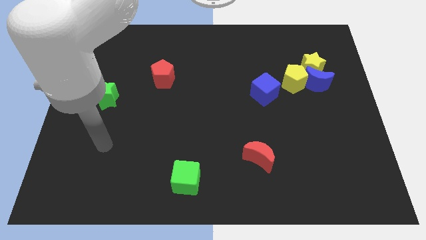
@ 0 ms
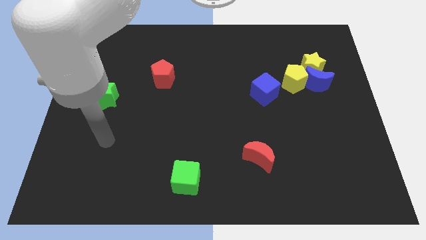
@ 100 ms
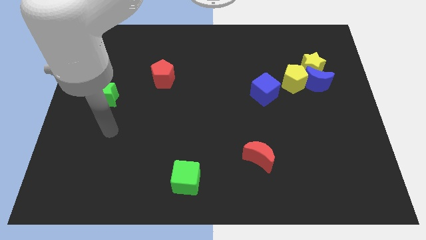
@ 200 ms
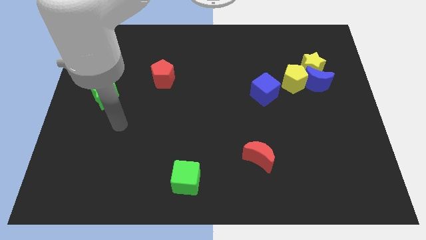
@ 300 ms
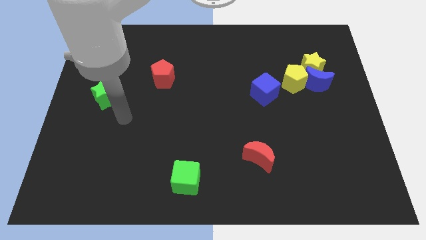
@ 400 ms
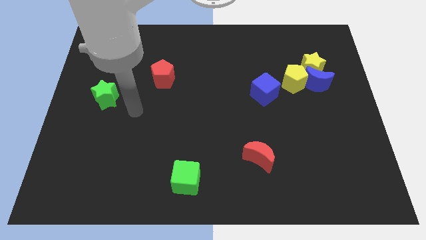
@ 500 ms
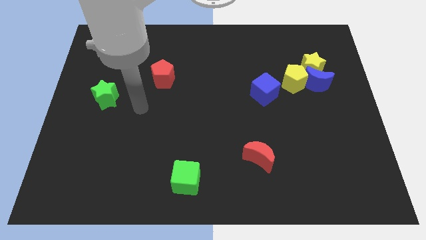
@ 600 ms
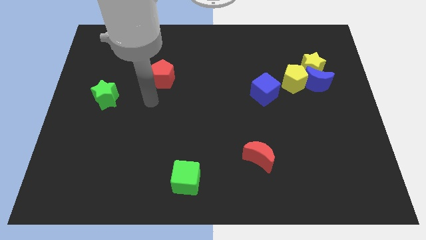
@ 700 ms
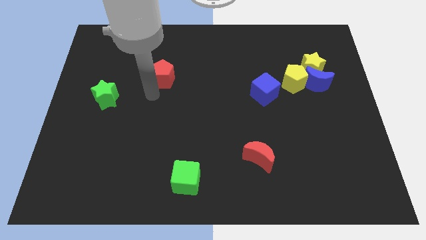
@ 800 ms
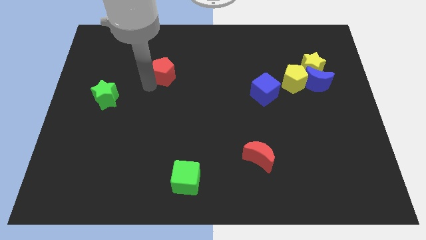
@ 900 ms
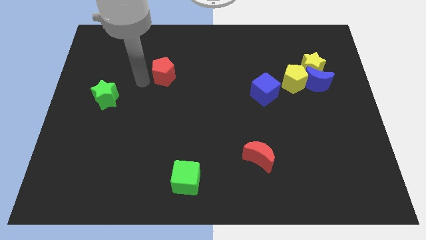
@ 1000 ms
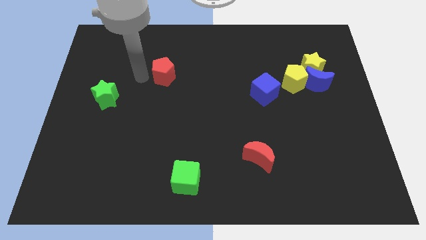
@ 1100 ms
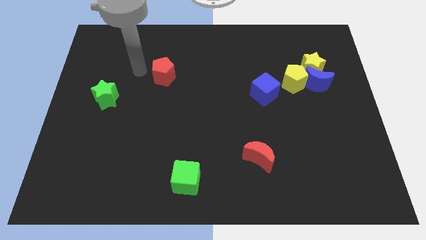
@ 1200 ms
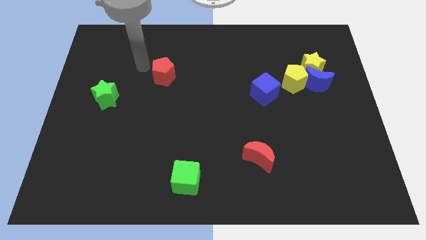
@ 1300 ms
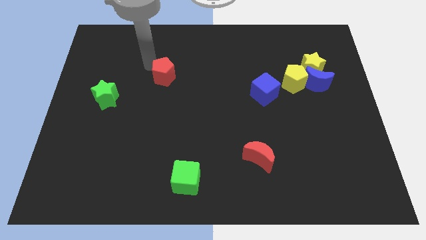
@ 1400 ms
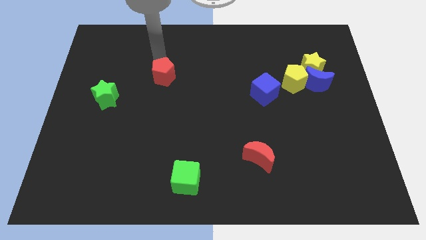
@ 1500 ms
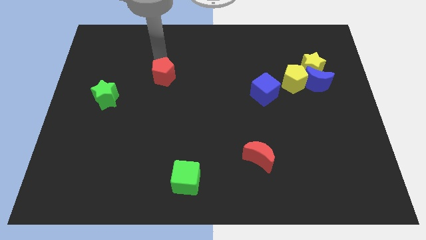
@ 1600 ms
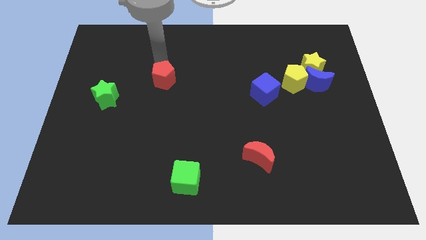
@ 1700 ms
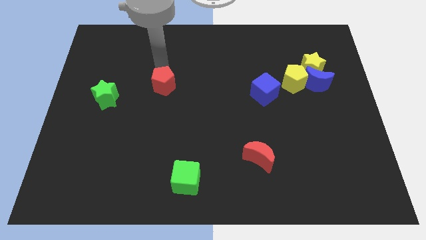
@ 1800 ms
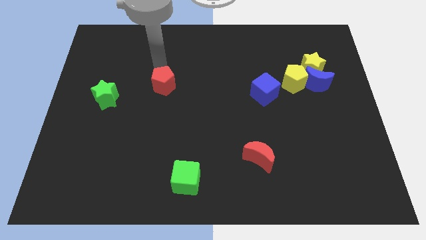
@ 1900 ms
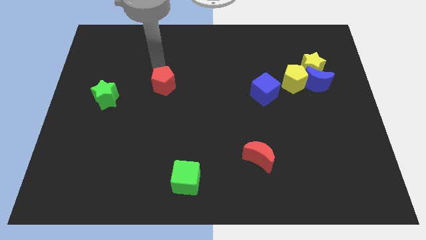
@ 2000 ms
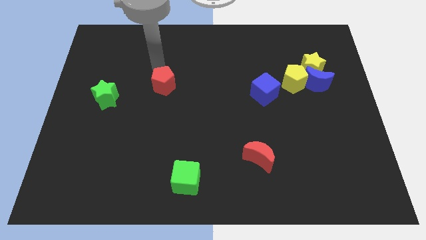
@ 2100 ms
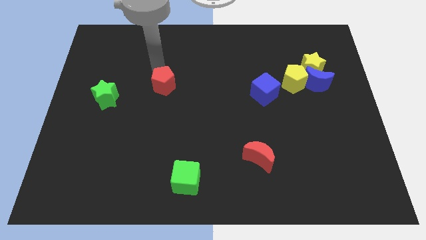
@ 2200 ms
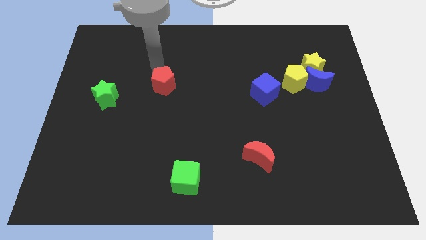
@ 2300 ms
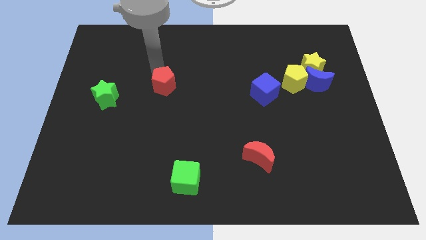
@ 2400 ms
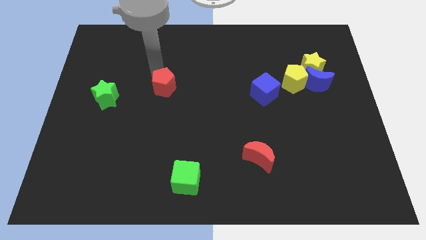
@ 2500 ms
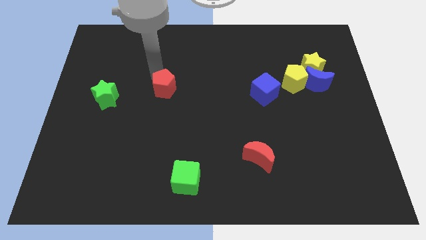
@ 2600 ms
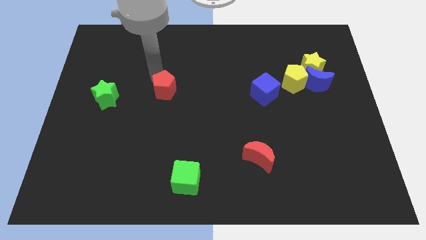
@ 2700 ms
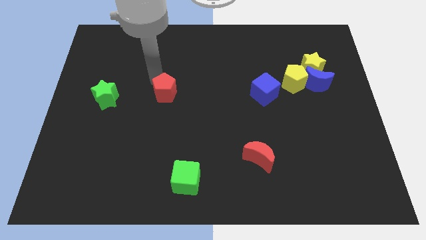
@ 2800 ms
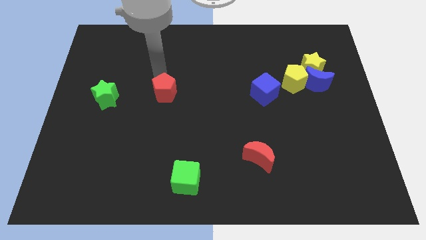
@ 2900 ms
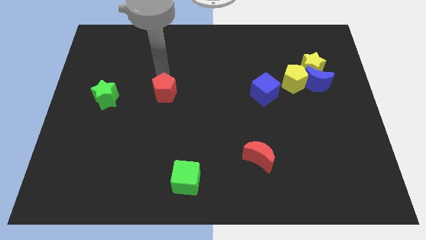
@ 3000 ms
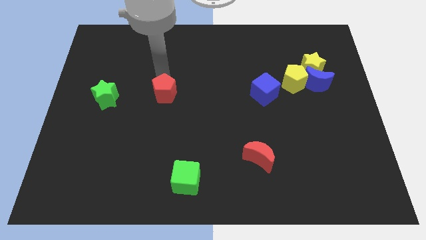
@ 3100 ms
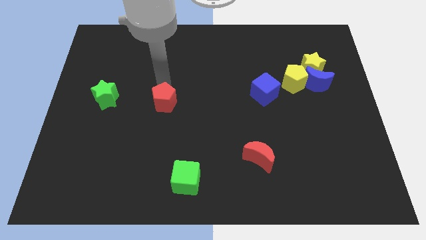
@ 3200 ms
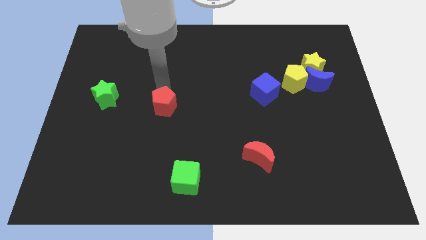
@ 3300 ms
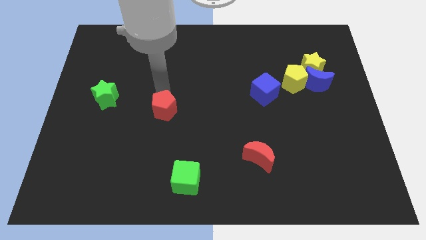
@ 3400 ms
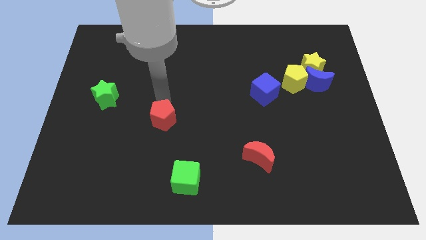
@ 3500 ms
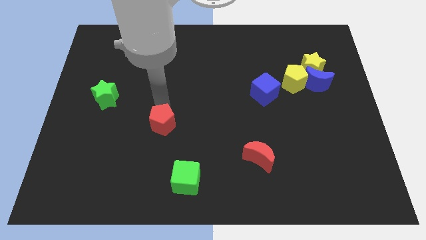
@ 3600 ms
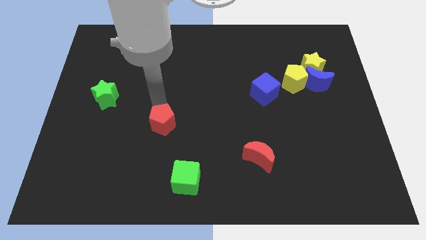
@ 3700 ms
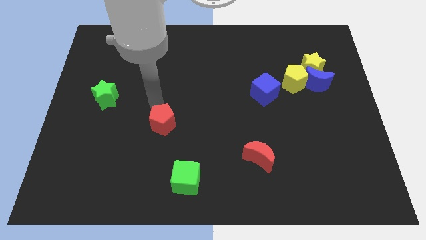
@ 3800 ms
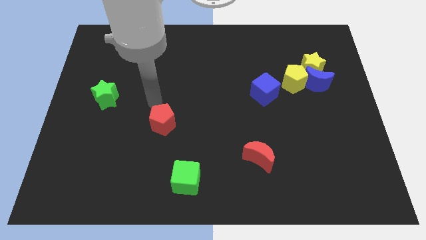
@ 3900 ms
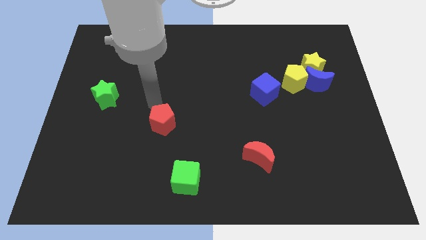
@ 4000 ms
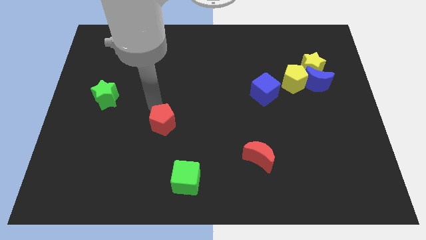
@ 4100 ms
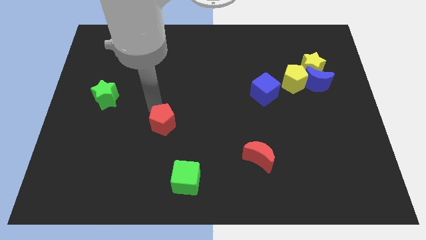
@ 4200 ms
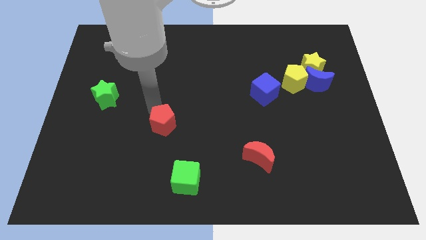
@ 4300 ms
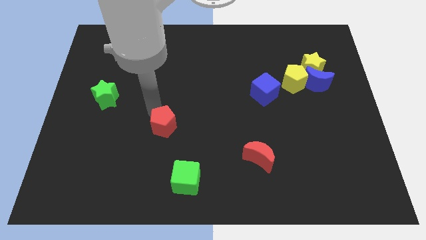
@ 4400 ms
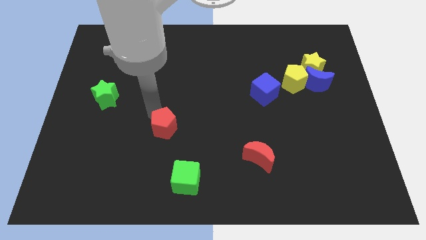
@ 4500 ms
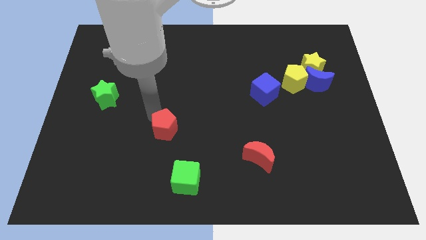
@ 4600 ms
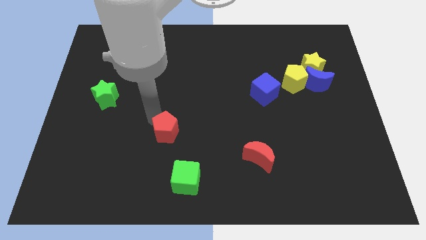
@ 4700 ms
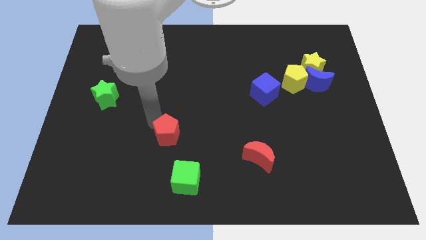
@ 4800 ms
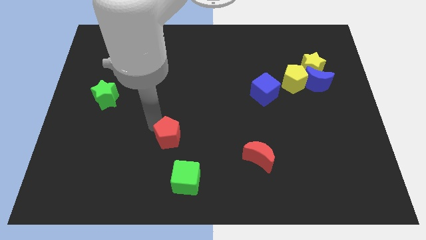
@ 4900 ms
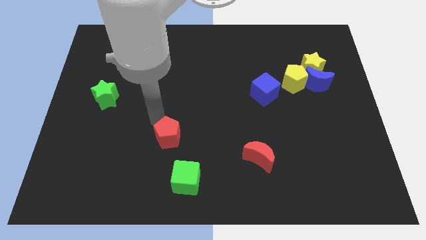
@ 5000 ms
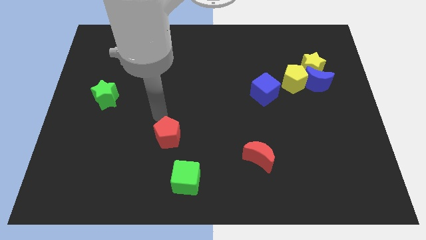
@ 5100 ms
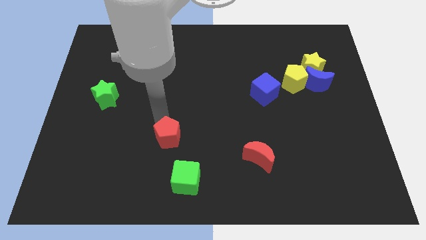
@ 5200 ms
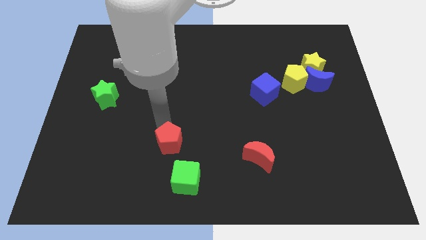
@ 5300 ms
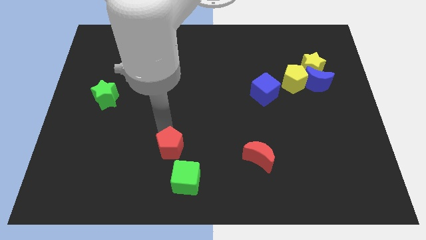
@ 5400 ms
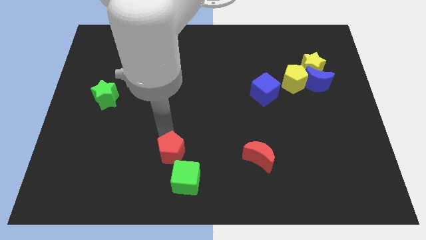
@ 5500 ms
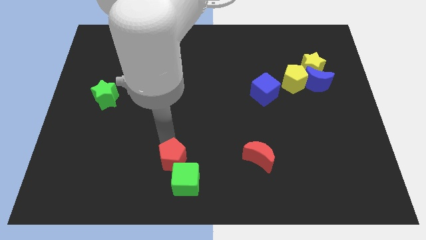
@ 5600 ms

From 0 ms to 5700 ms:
push the red pentagon towards the green cube

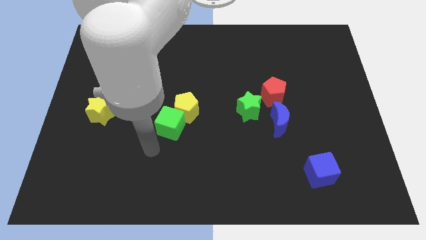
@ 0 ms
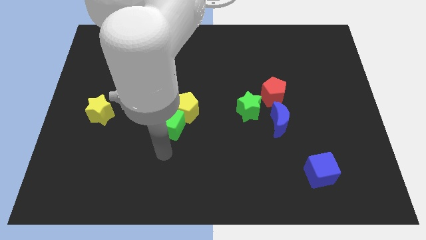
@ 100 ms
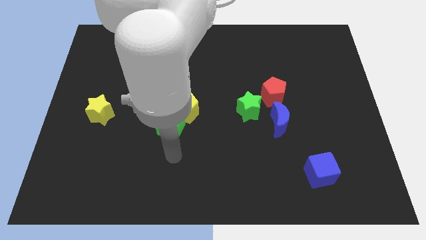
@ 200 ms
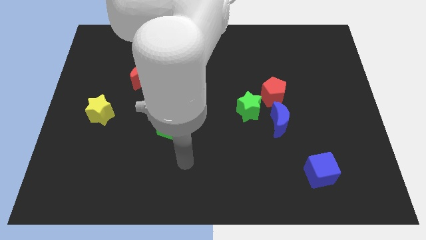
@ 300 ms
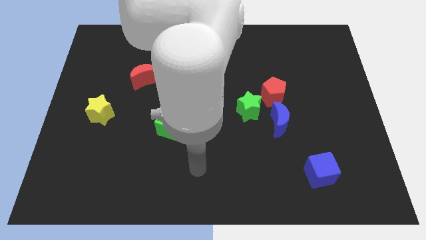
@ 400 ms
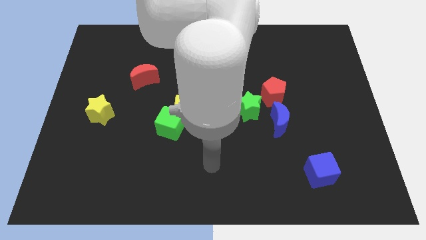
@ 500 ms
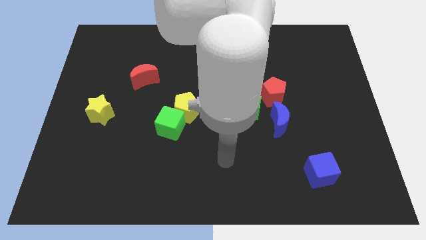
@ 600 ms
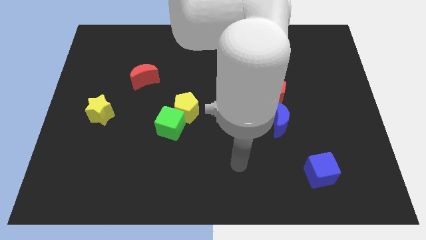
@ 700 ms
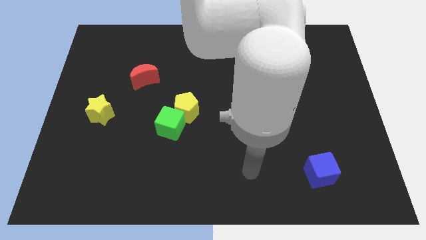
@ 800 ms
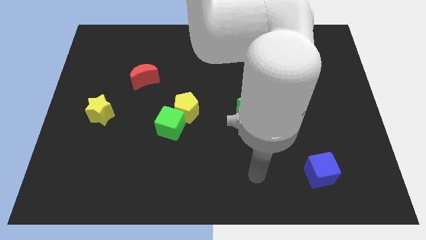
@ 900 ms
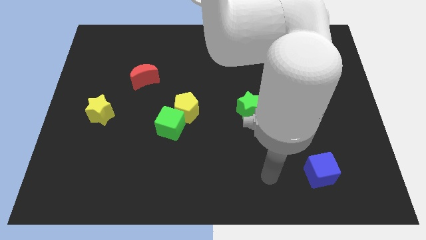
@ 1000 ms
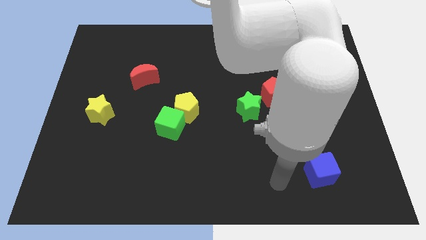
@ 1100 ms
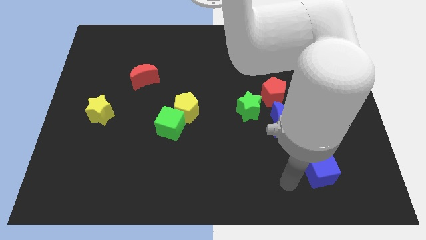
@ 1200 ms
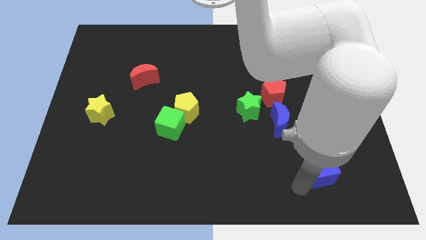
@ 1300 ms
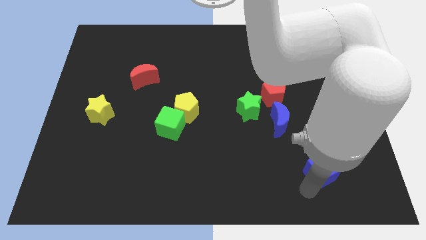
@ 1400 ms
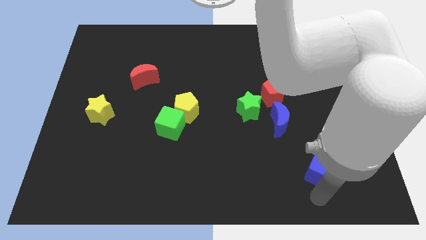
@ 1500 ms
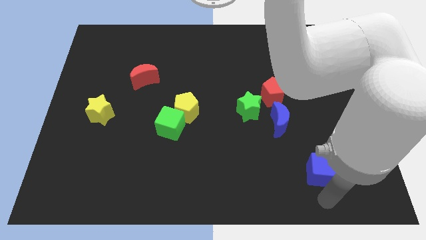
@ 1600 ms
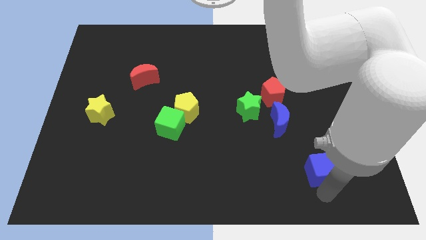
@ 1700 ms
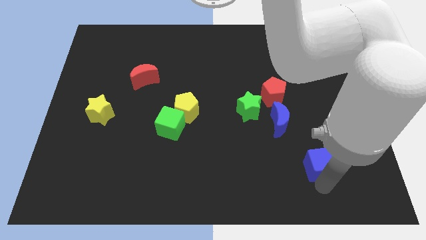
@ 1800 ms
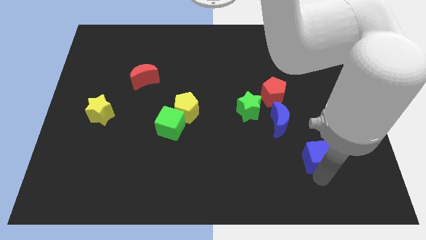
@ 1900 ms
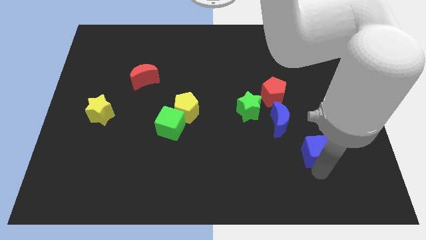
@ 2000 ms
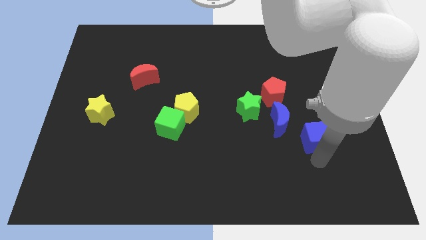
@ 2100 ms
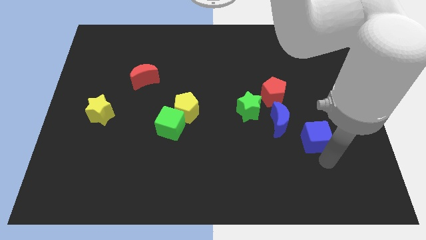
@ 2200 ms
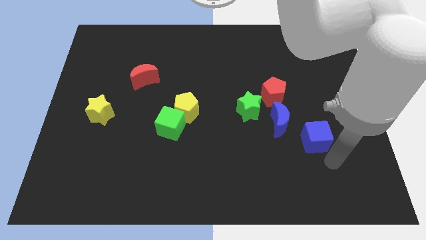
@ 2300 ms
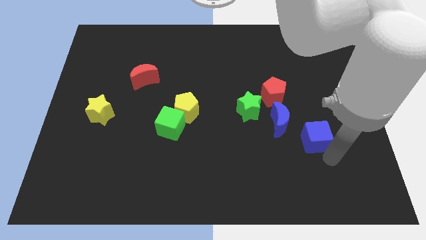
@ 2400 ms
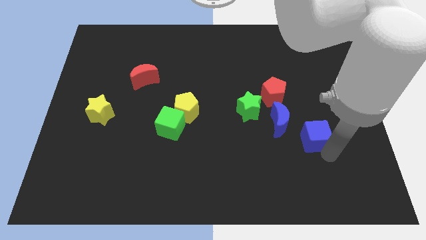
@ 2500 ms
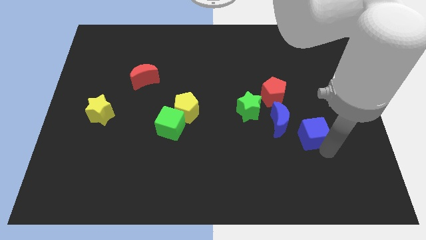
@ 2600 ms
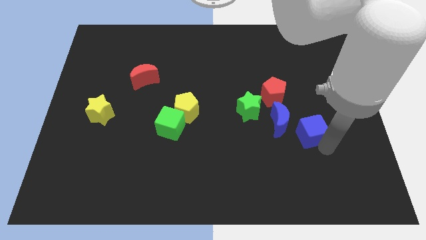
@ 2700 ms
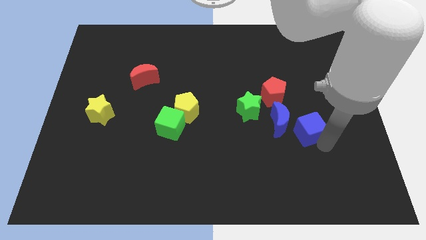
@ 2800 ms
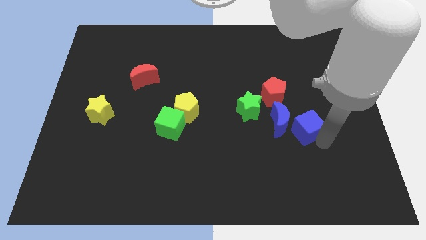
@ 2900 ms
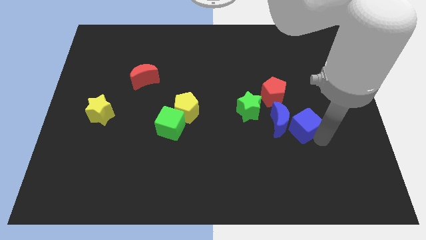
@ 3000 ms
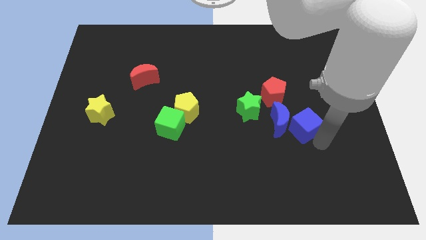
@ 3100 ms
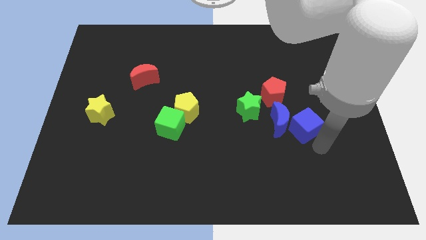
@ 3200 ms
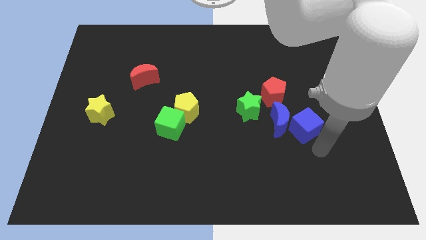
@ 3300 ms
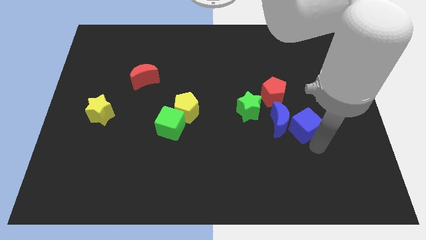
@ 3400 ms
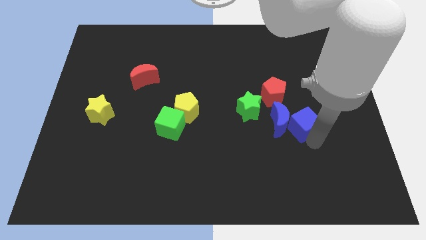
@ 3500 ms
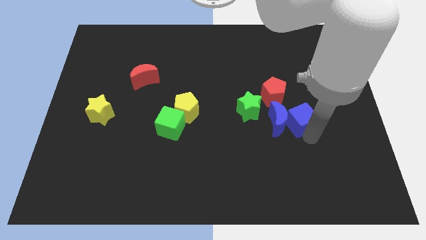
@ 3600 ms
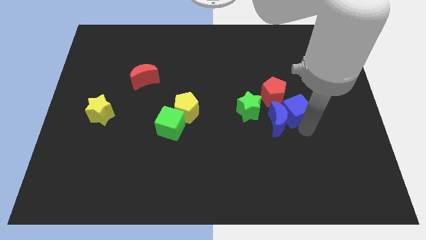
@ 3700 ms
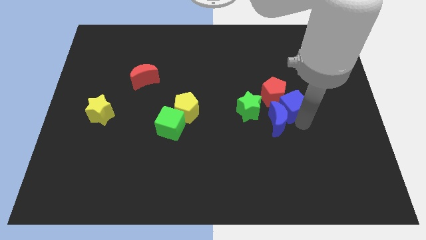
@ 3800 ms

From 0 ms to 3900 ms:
put the blue cube next to the red pentagon
